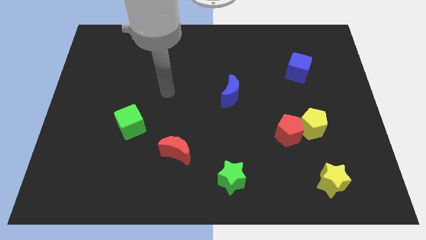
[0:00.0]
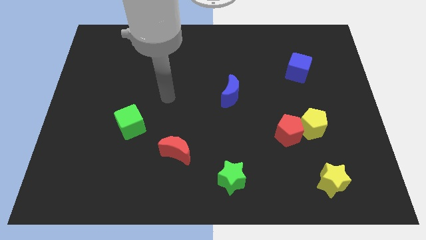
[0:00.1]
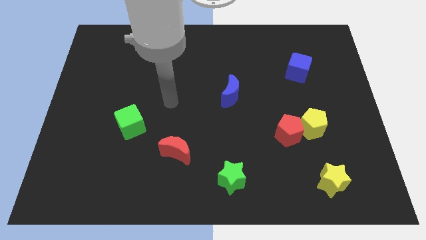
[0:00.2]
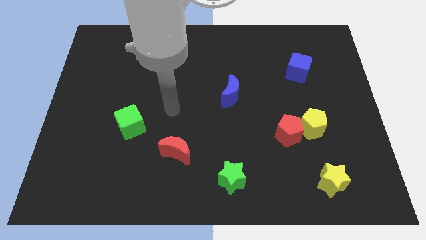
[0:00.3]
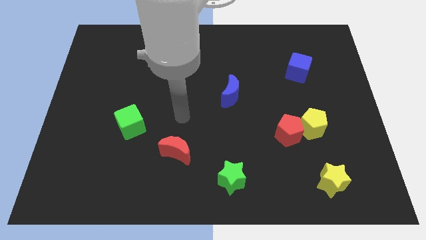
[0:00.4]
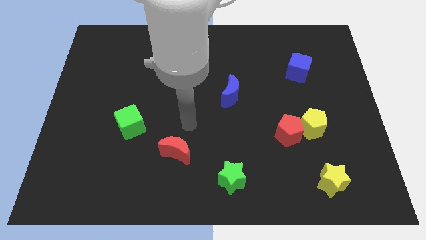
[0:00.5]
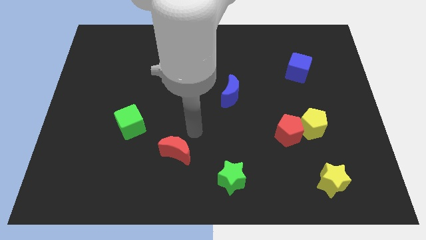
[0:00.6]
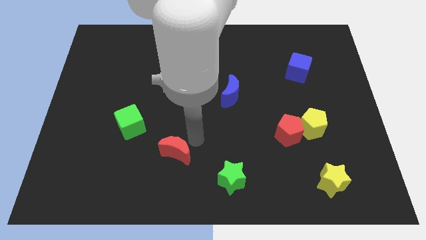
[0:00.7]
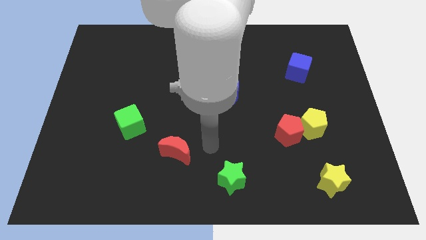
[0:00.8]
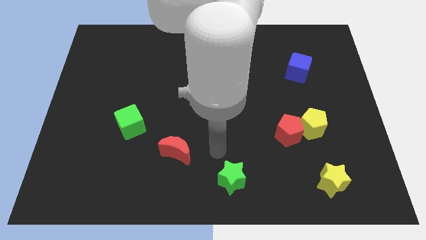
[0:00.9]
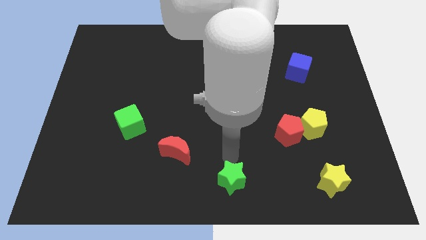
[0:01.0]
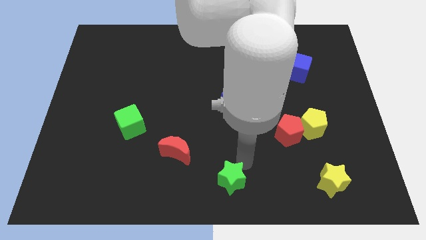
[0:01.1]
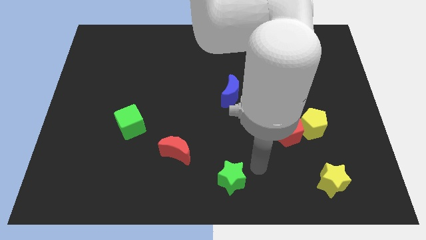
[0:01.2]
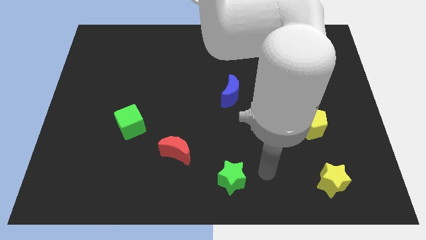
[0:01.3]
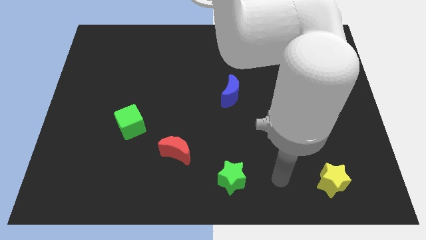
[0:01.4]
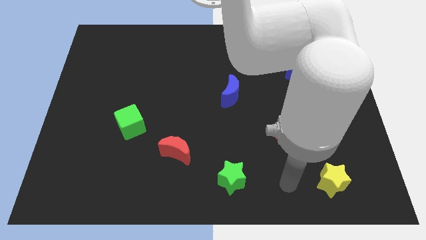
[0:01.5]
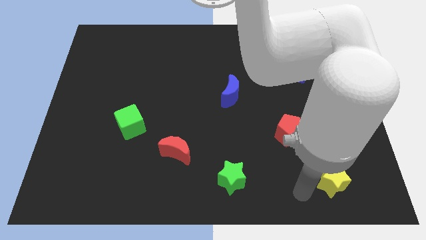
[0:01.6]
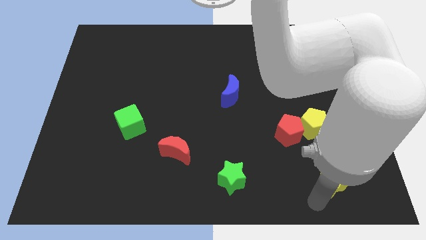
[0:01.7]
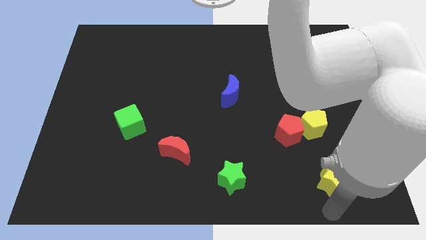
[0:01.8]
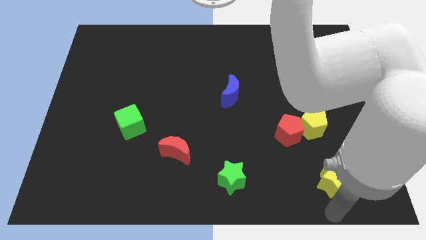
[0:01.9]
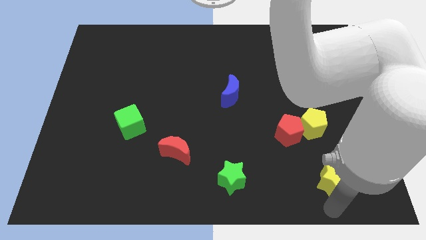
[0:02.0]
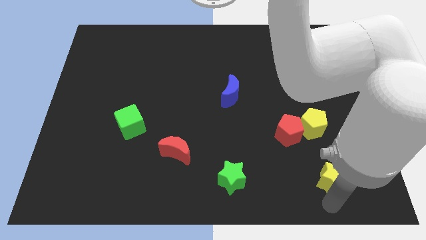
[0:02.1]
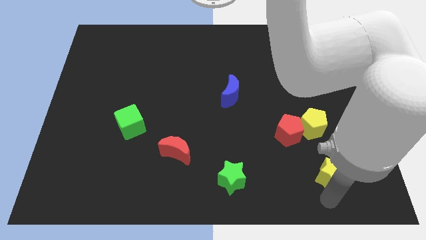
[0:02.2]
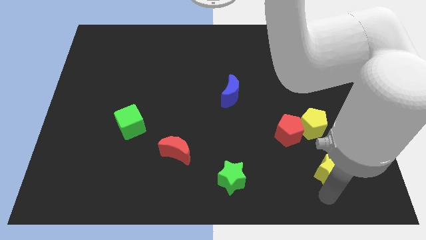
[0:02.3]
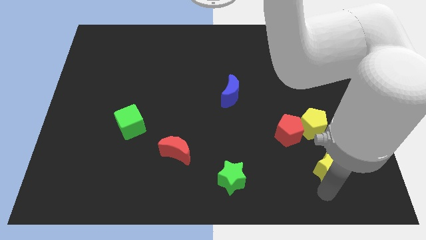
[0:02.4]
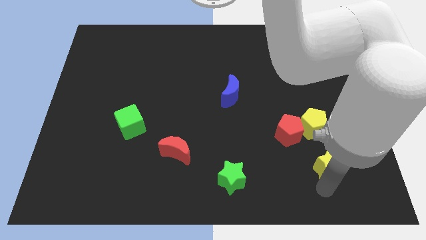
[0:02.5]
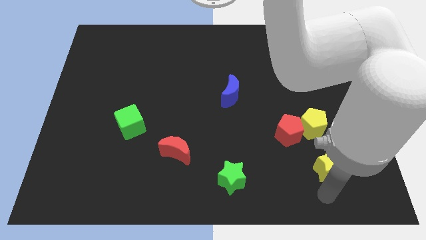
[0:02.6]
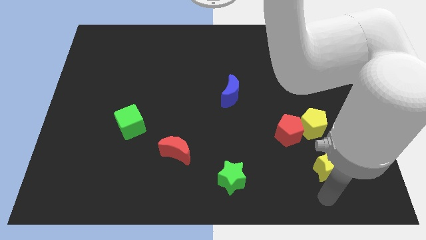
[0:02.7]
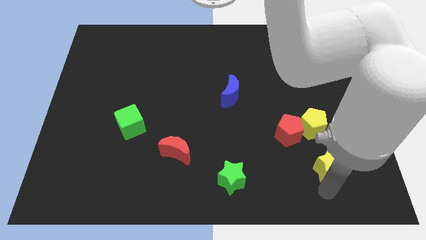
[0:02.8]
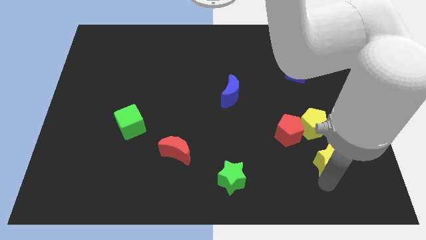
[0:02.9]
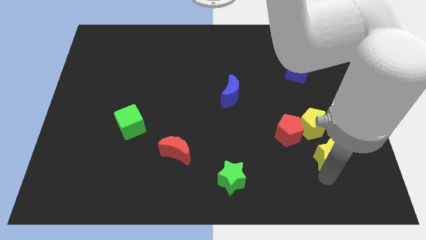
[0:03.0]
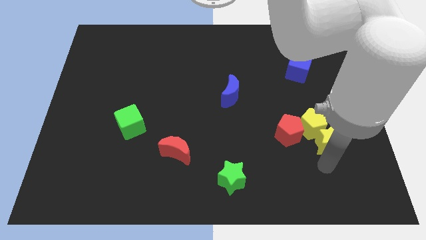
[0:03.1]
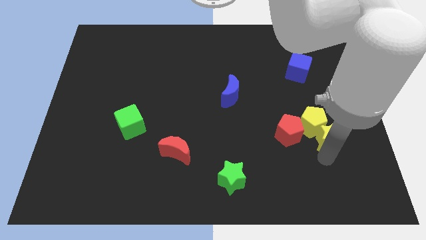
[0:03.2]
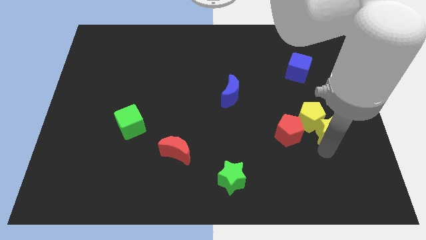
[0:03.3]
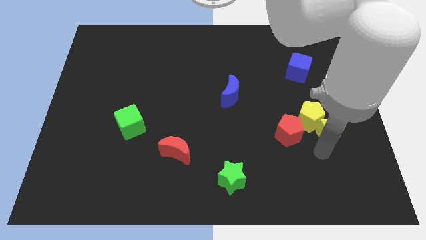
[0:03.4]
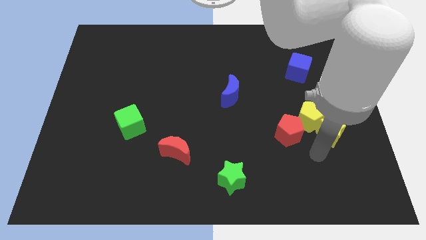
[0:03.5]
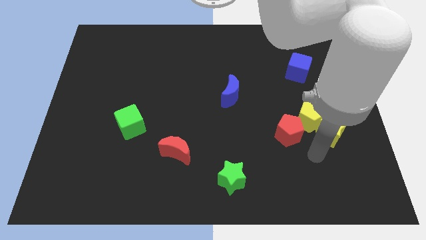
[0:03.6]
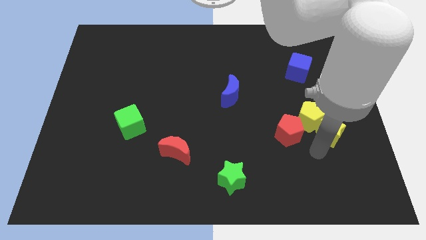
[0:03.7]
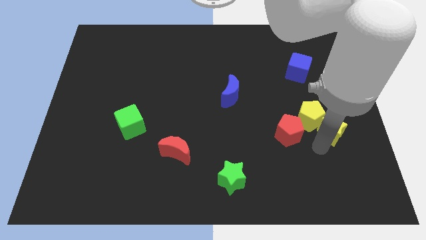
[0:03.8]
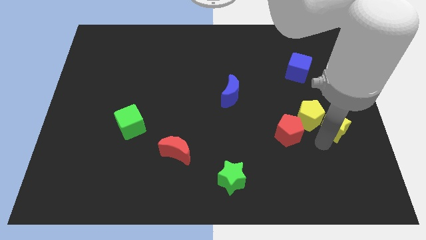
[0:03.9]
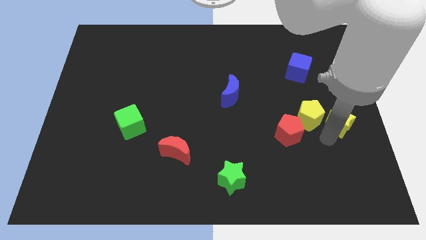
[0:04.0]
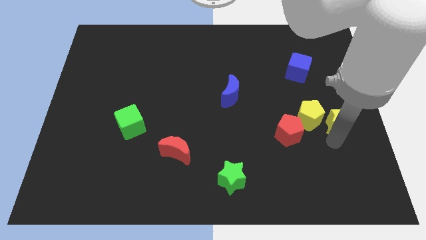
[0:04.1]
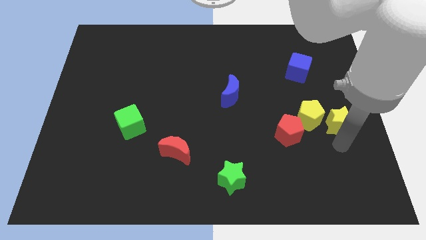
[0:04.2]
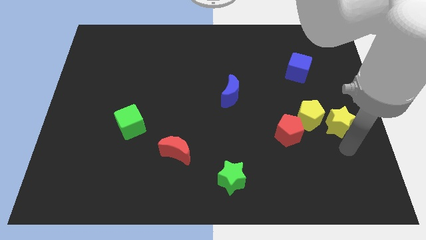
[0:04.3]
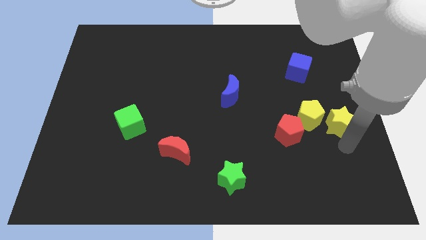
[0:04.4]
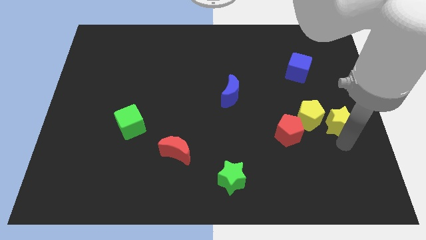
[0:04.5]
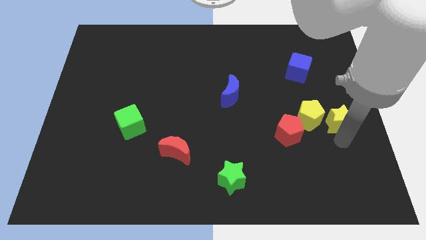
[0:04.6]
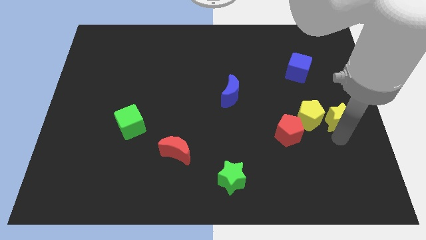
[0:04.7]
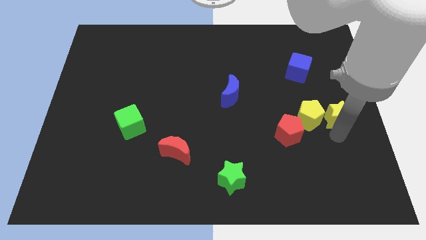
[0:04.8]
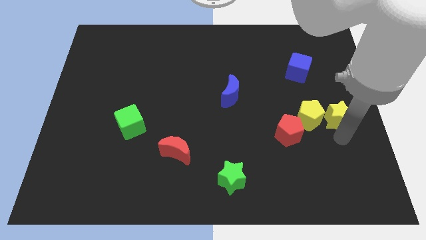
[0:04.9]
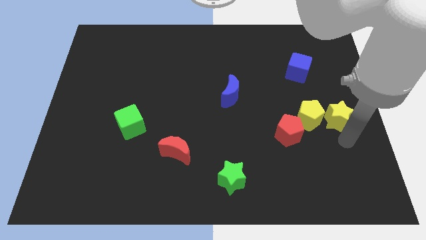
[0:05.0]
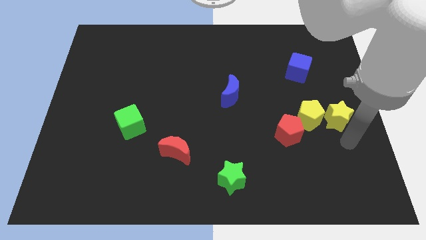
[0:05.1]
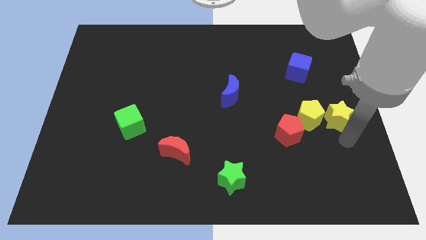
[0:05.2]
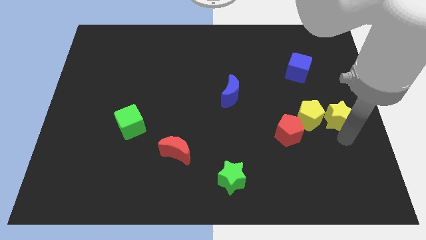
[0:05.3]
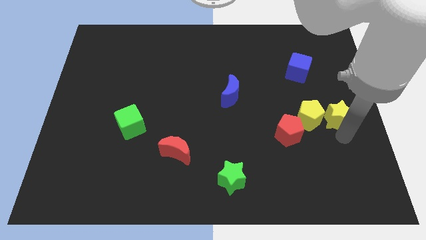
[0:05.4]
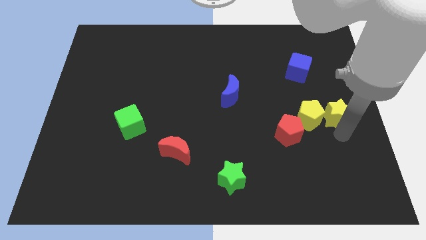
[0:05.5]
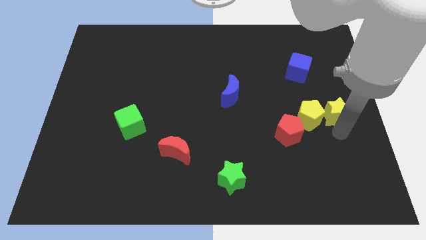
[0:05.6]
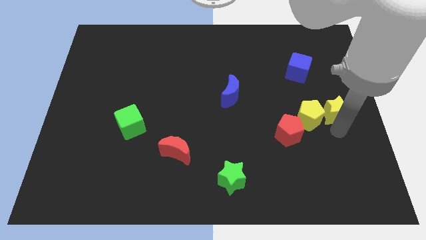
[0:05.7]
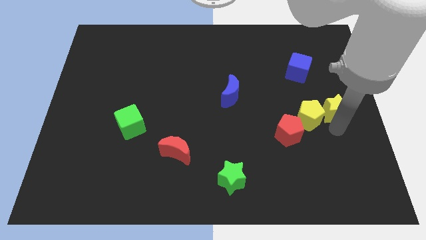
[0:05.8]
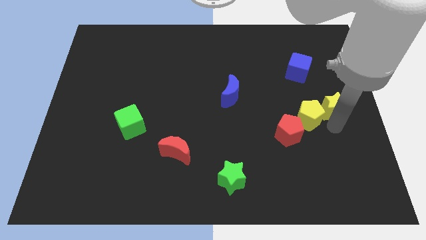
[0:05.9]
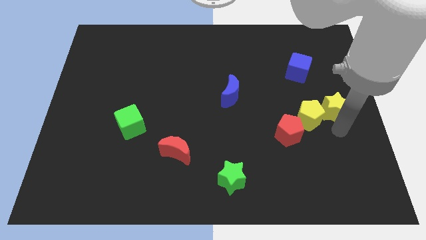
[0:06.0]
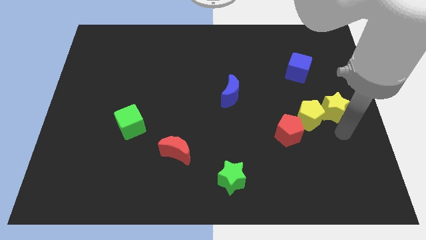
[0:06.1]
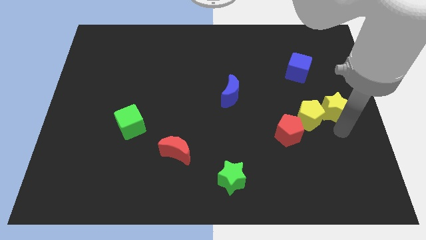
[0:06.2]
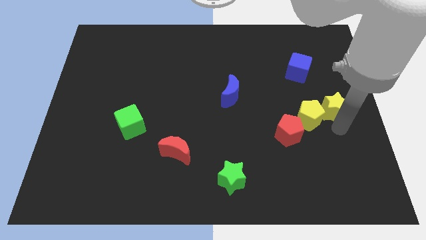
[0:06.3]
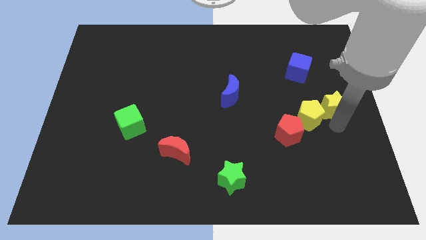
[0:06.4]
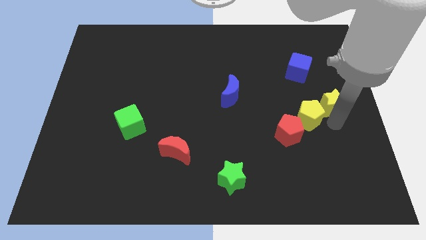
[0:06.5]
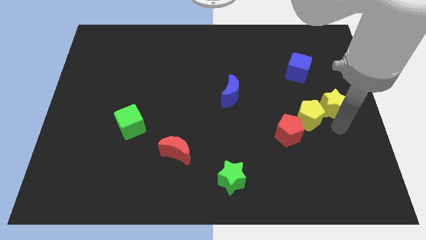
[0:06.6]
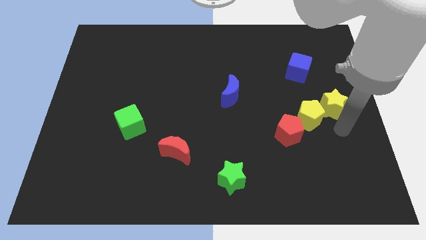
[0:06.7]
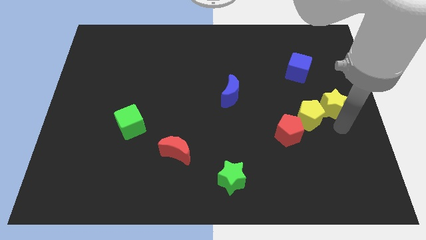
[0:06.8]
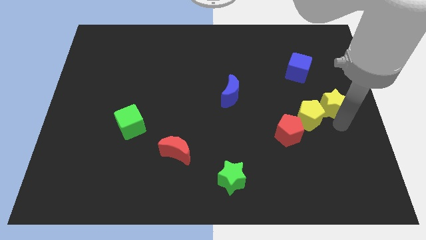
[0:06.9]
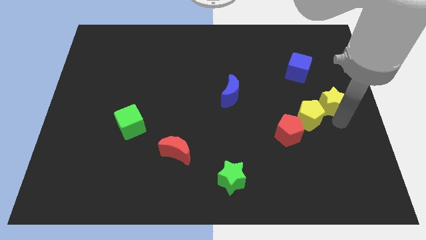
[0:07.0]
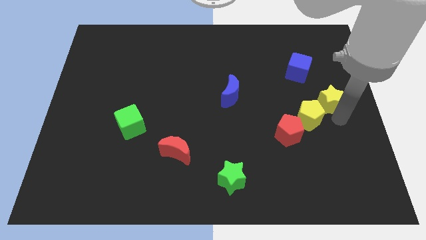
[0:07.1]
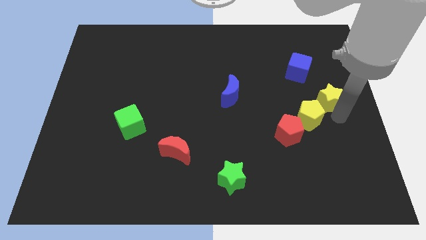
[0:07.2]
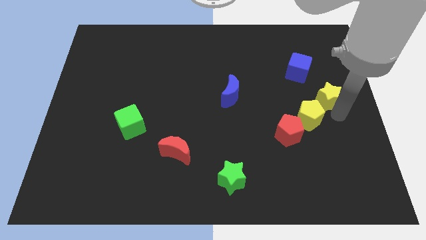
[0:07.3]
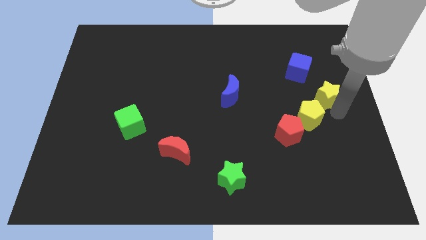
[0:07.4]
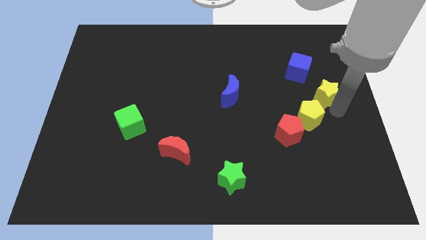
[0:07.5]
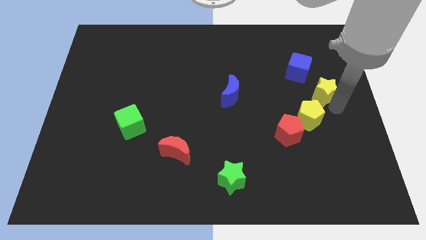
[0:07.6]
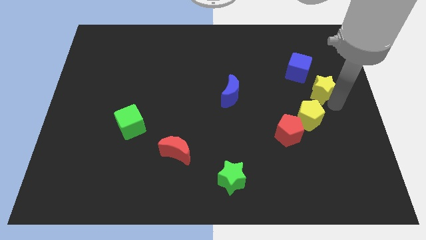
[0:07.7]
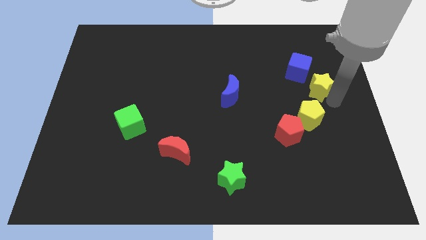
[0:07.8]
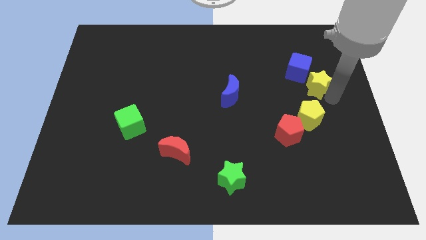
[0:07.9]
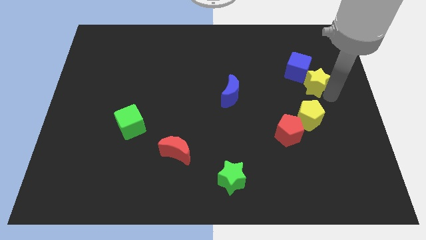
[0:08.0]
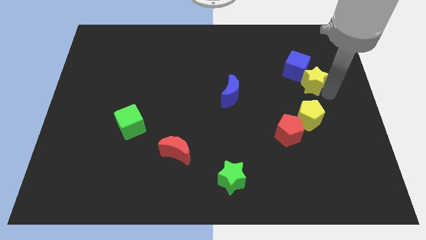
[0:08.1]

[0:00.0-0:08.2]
slide the yellow star towards the blue cube
